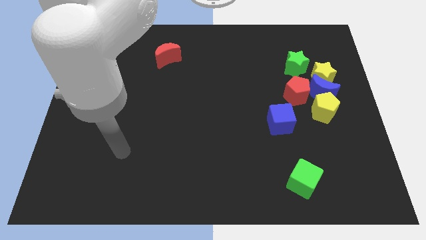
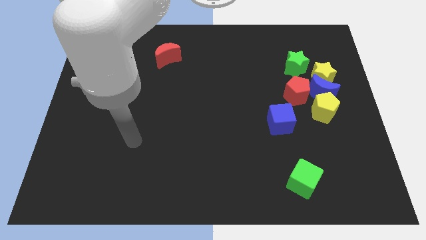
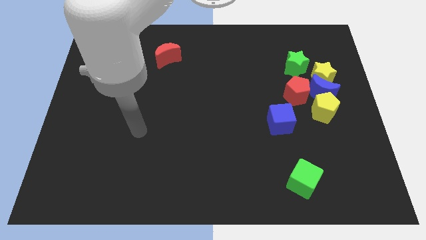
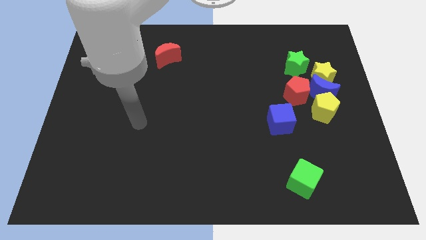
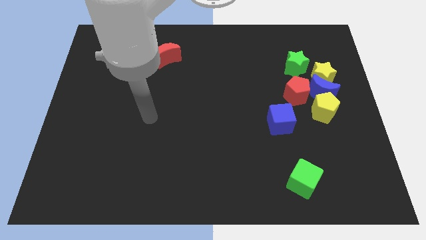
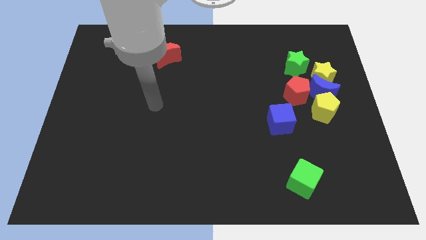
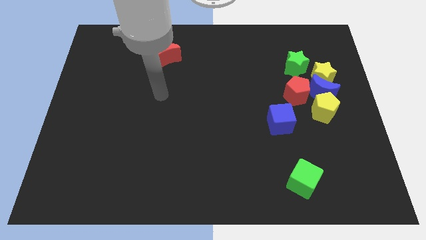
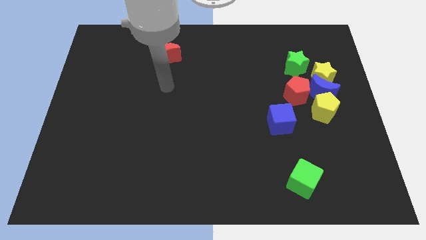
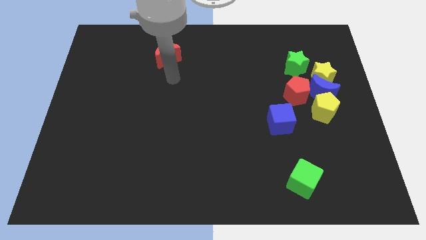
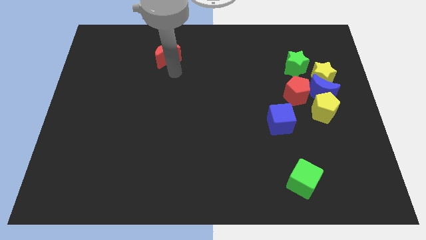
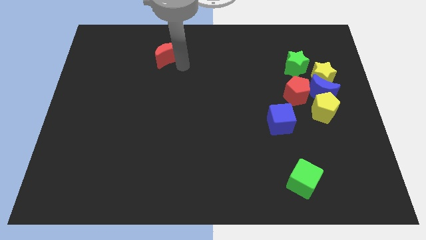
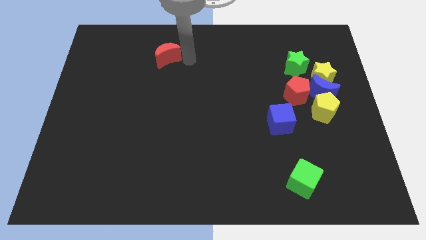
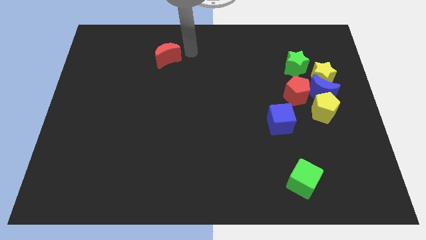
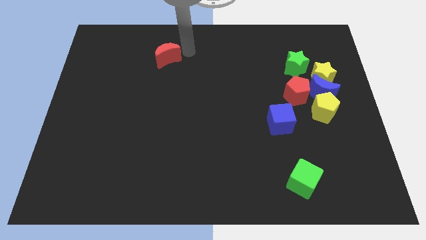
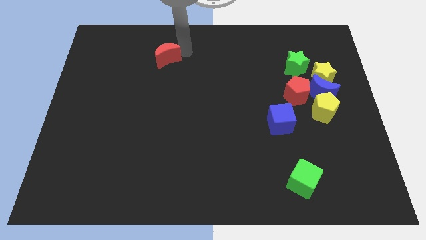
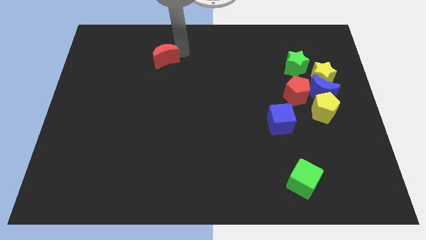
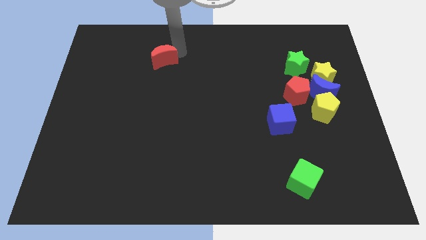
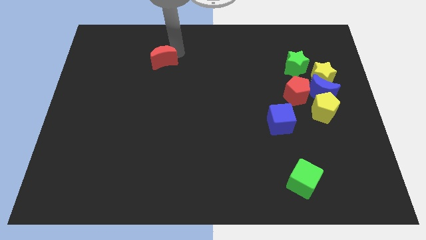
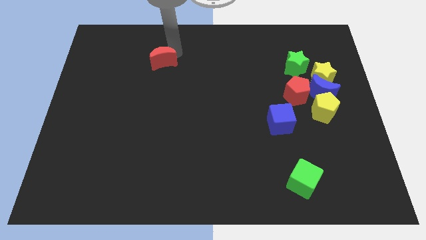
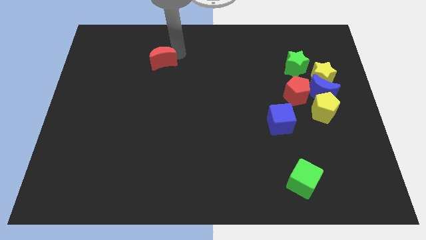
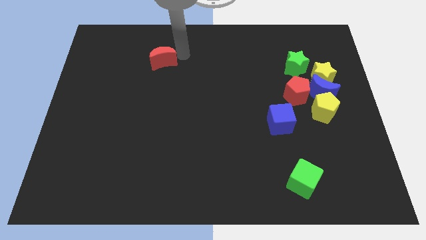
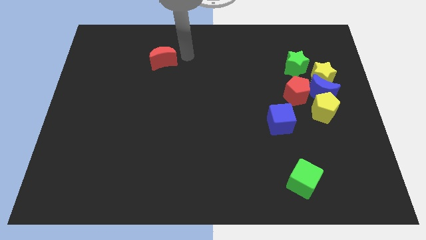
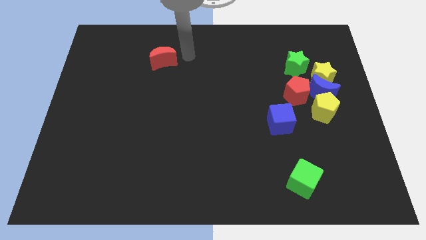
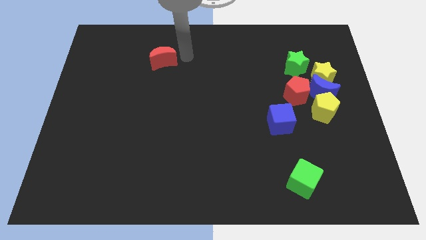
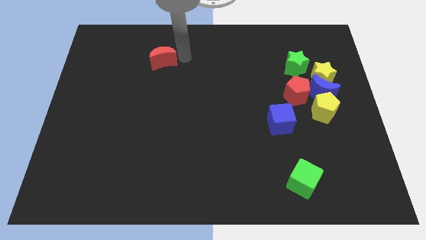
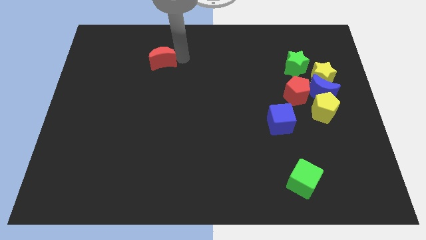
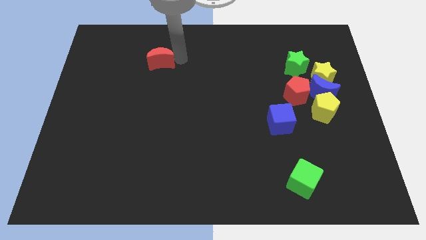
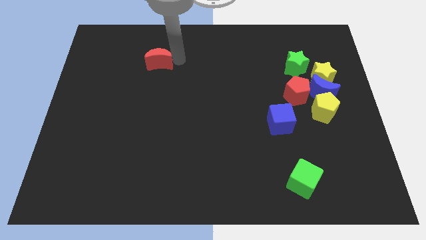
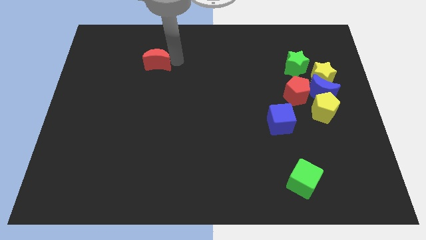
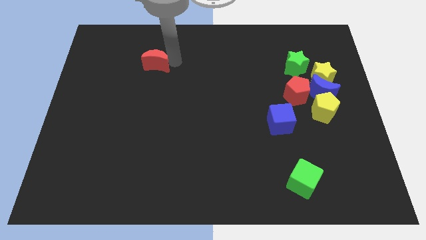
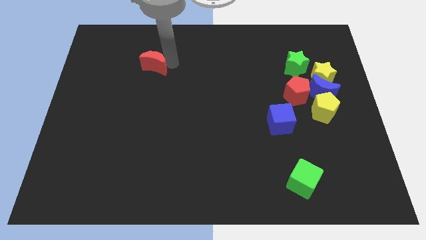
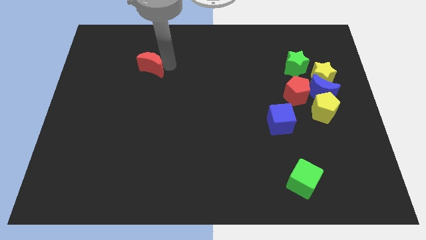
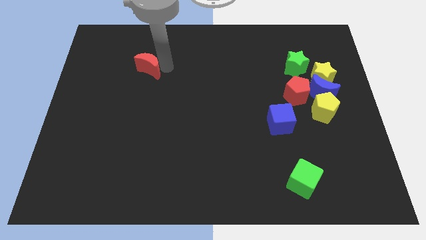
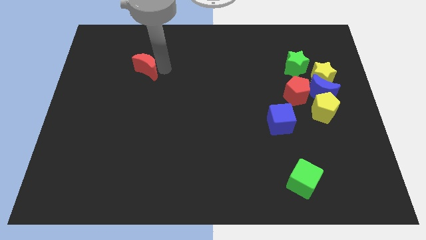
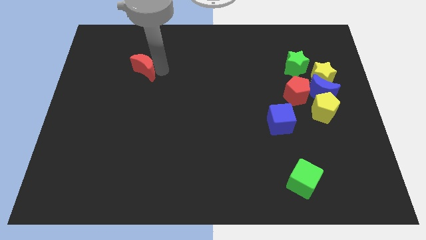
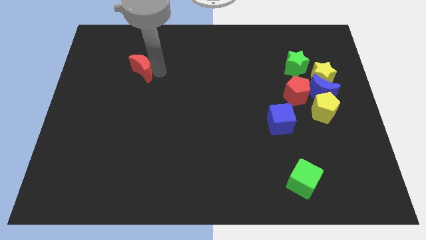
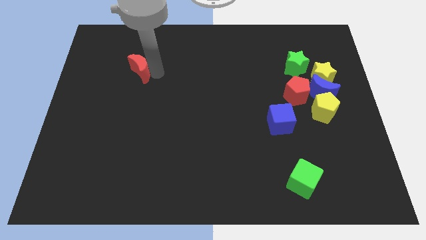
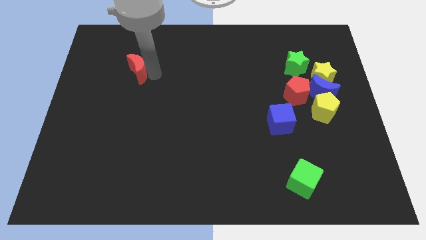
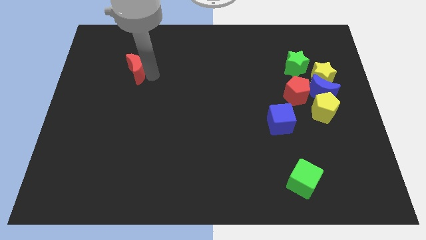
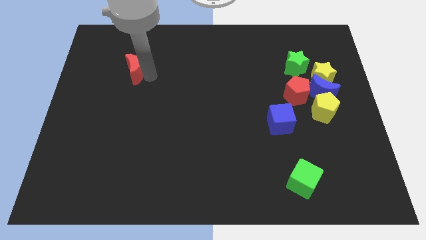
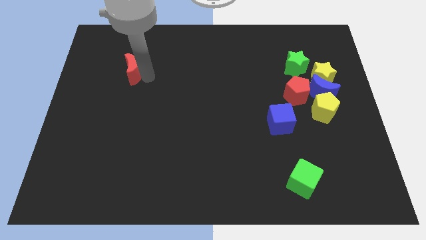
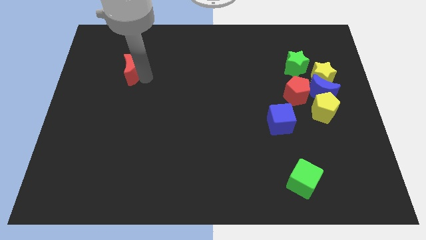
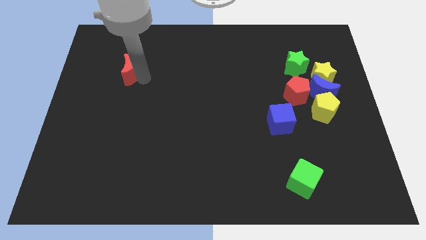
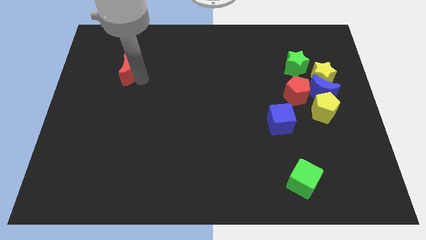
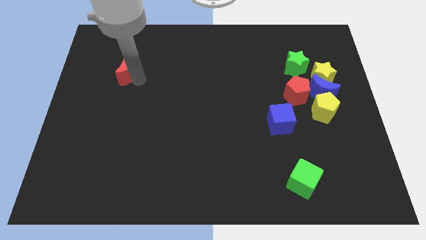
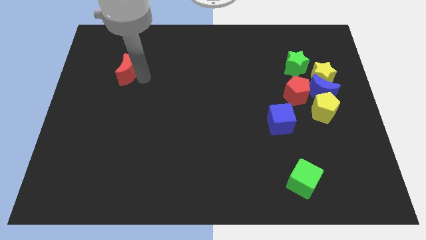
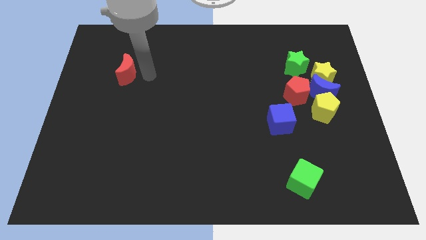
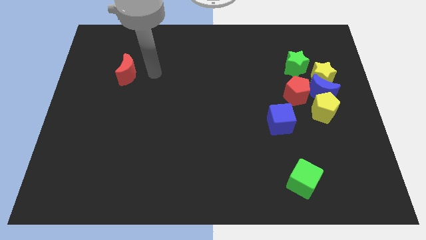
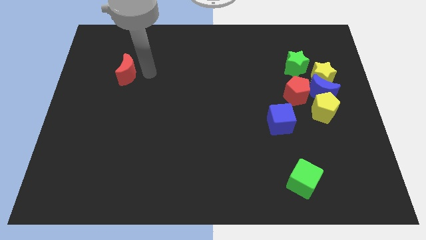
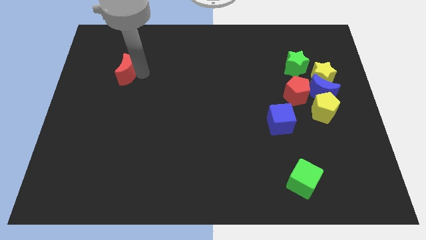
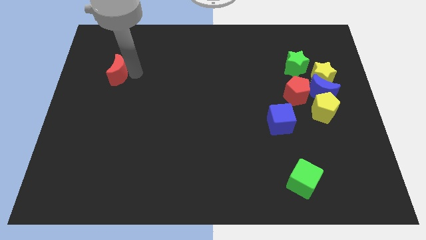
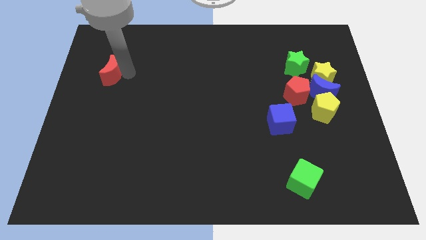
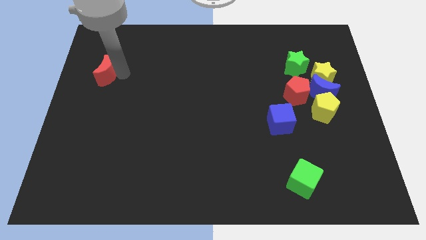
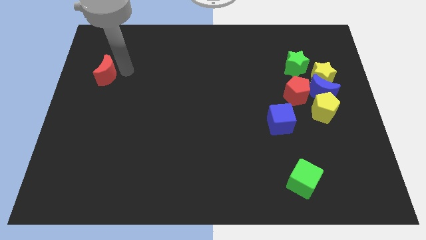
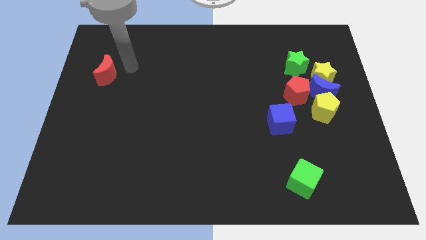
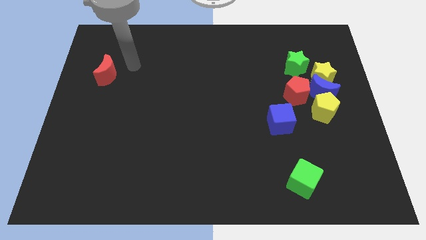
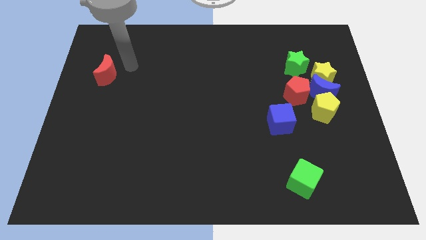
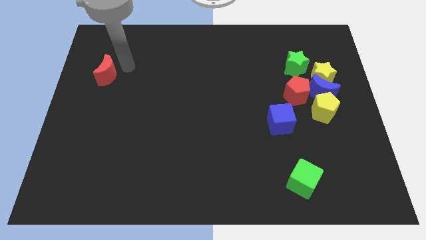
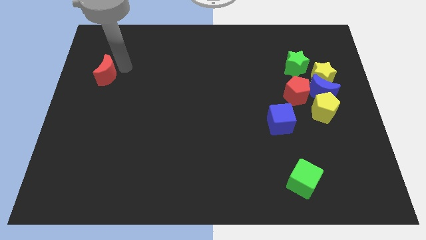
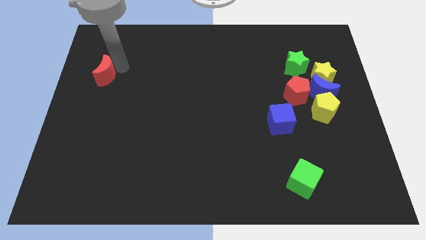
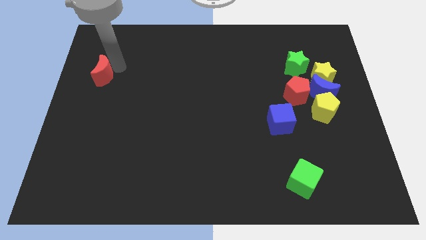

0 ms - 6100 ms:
slide the red moon to the left side

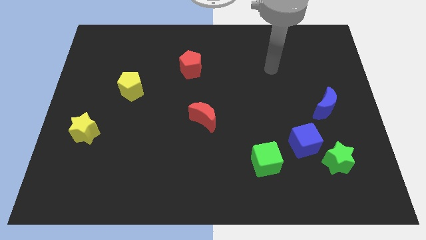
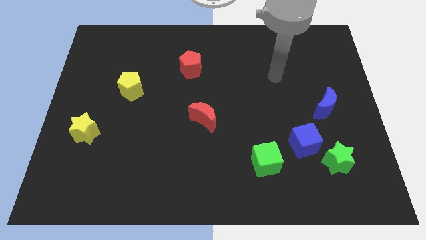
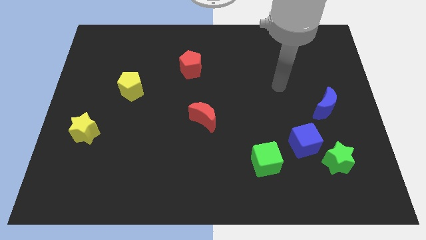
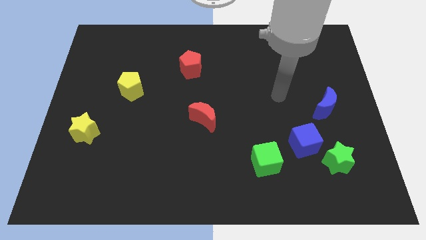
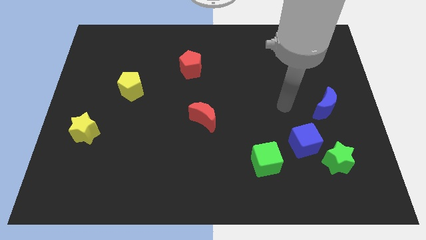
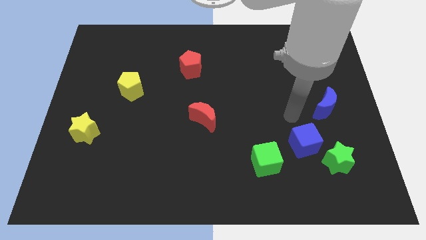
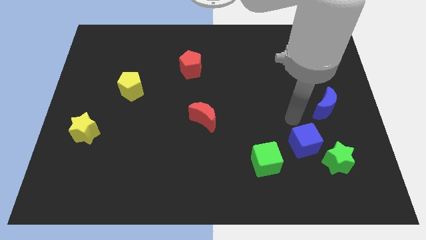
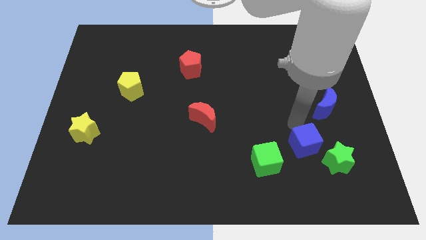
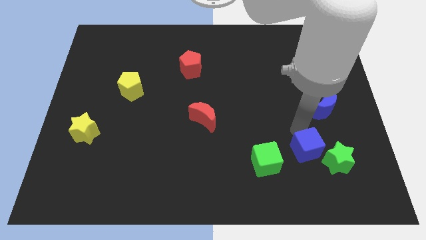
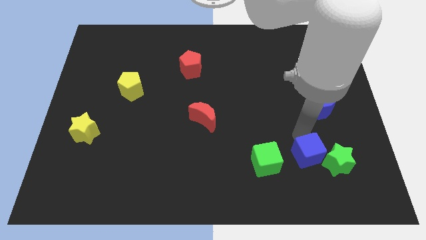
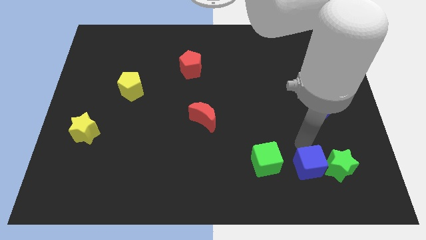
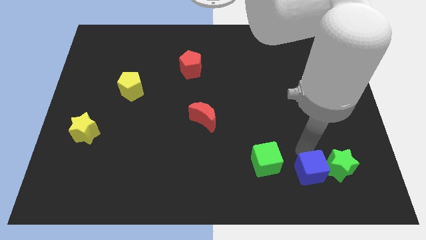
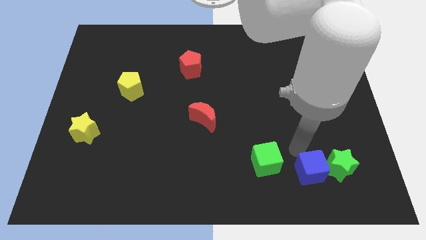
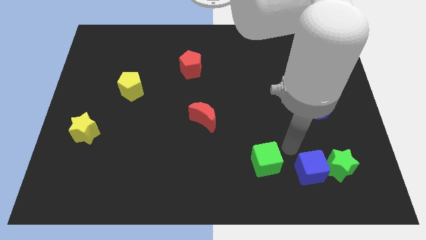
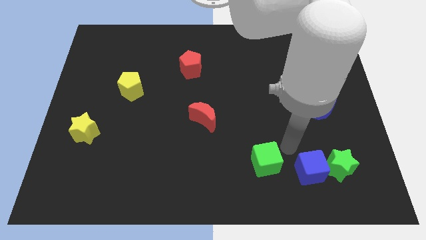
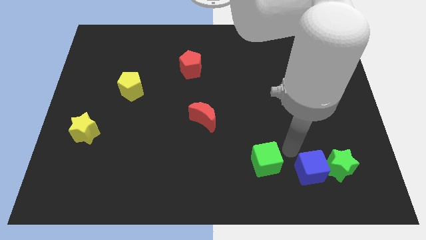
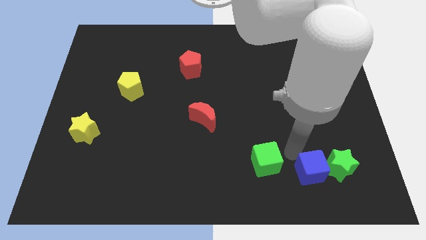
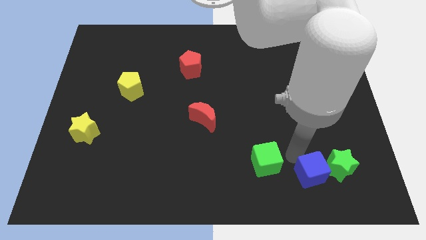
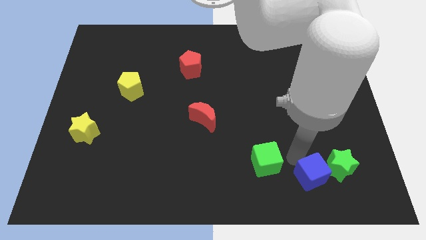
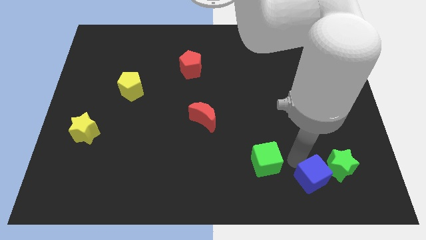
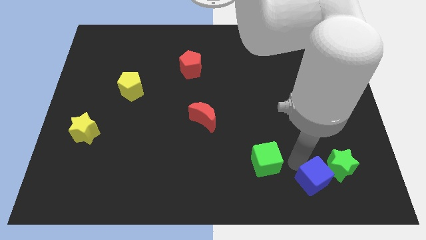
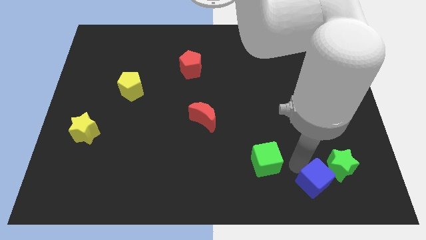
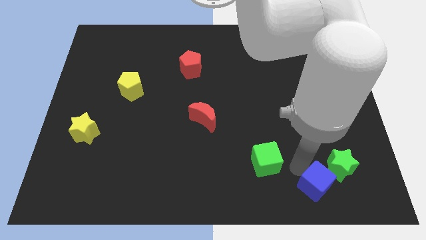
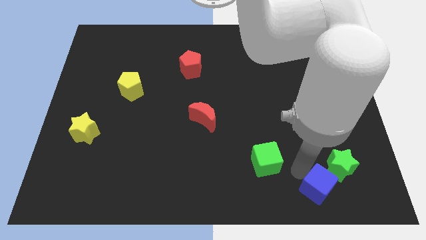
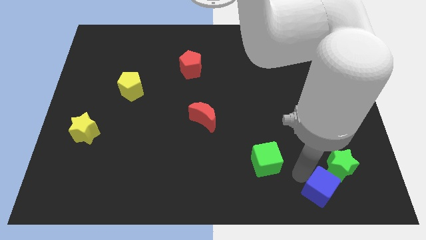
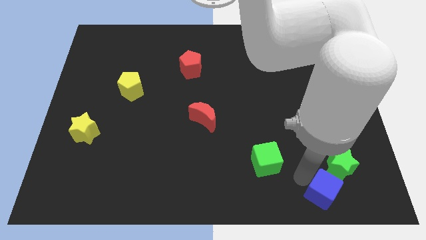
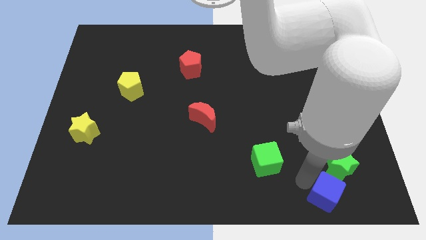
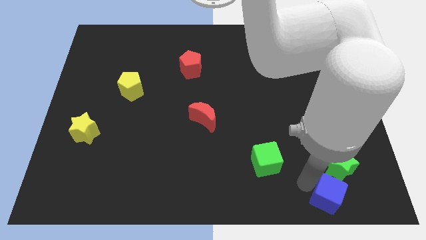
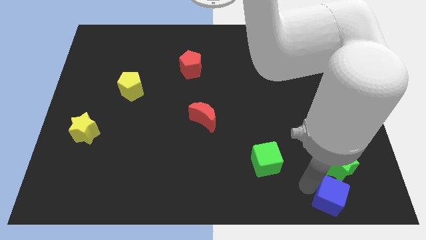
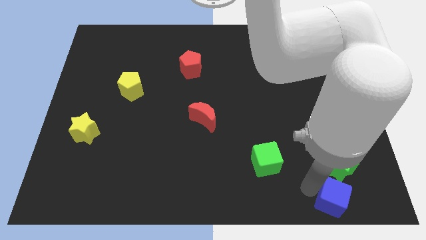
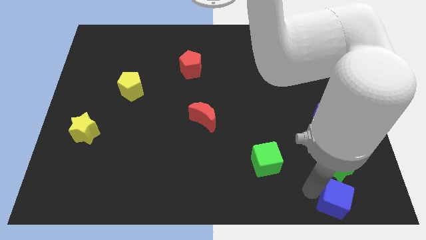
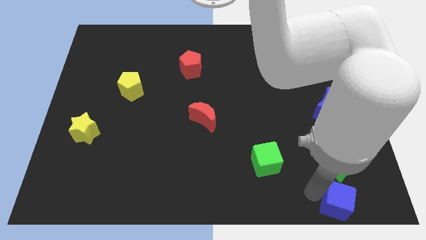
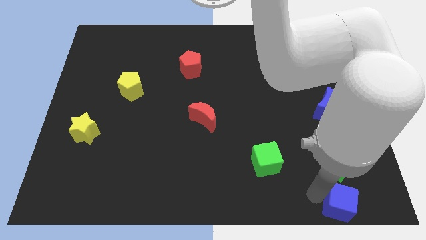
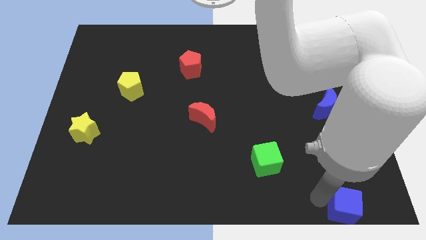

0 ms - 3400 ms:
push the blue cube to the lower right corner
